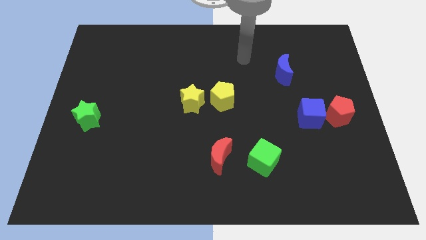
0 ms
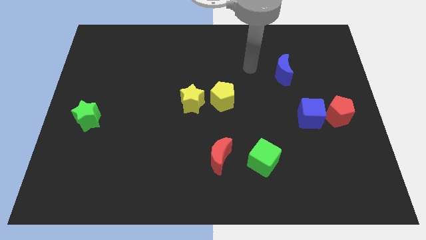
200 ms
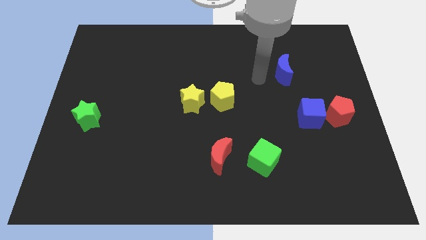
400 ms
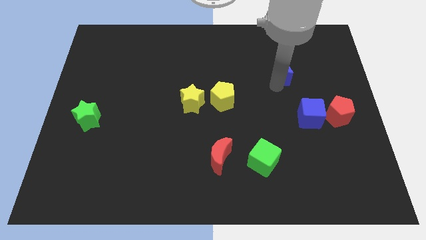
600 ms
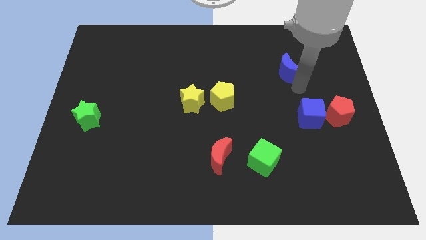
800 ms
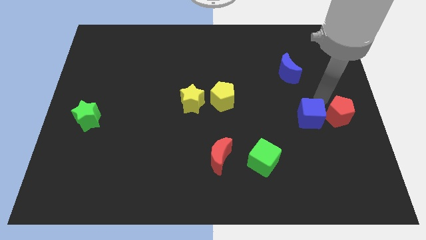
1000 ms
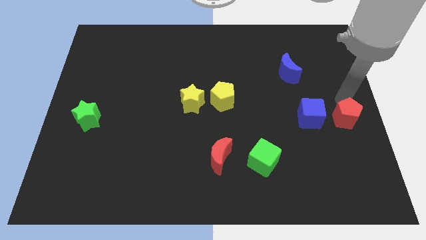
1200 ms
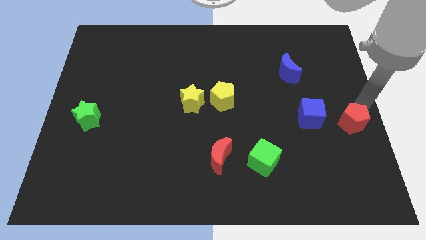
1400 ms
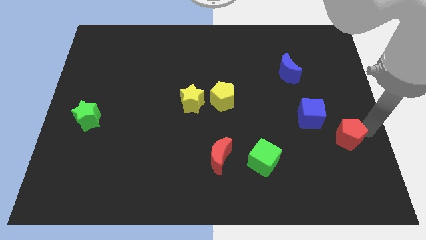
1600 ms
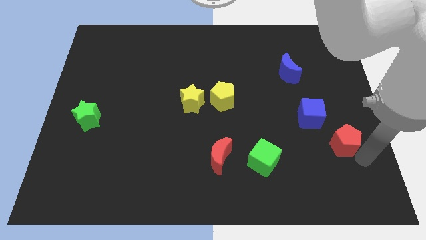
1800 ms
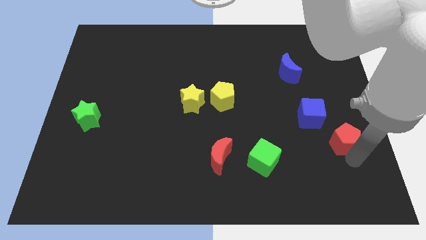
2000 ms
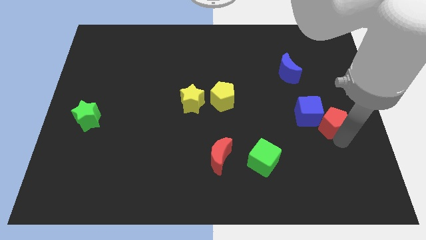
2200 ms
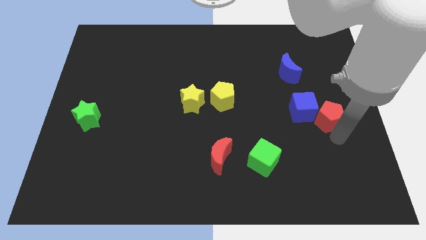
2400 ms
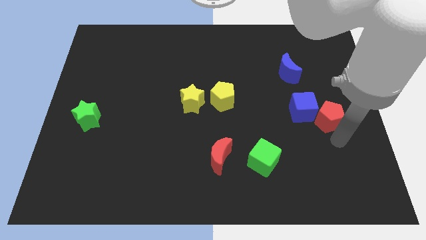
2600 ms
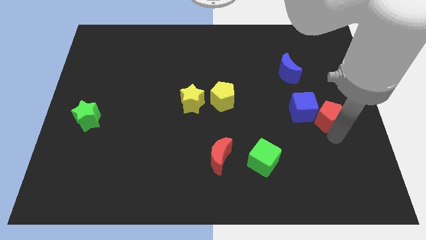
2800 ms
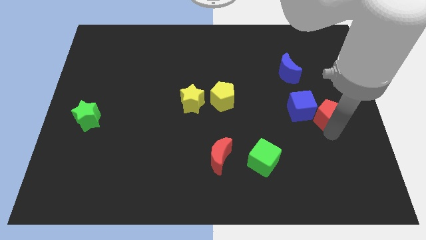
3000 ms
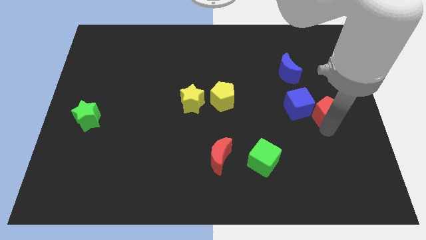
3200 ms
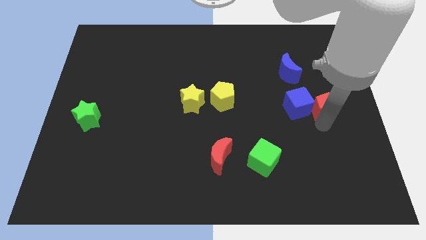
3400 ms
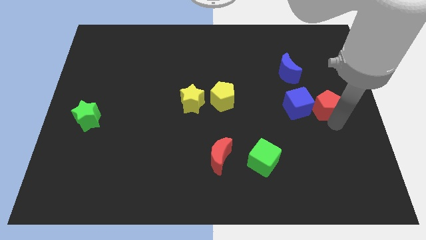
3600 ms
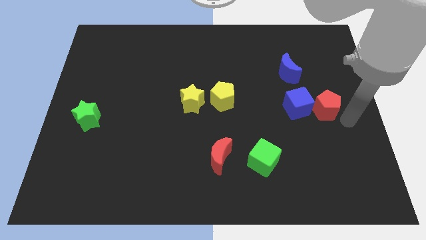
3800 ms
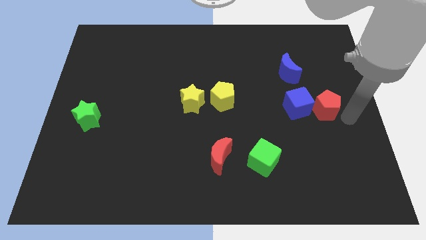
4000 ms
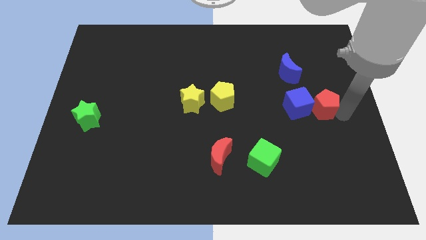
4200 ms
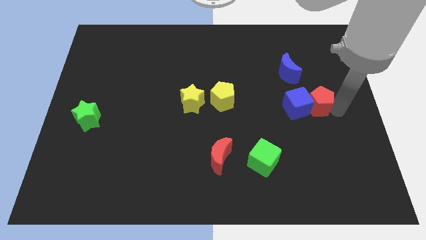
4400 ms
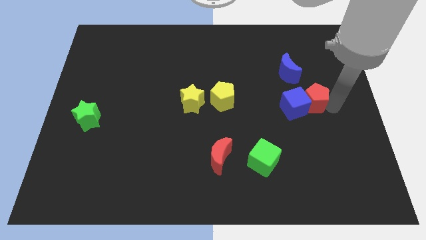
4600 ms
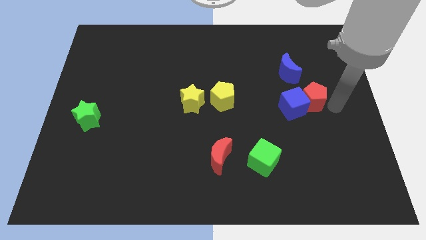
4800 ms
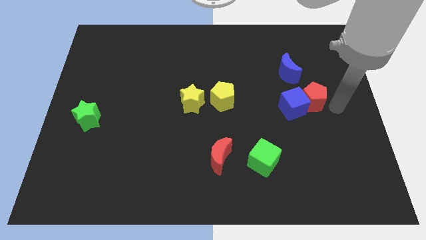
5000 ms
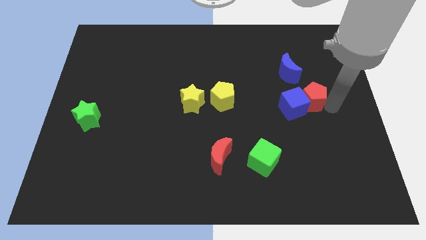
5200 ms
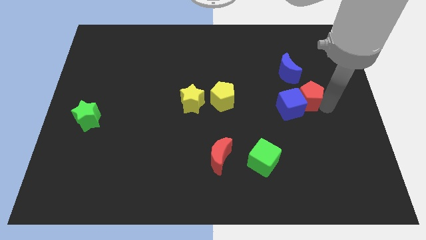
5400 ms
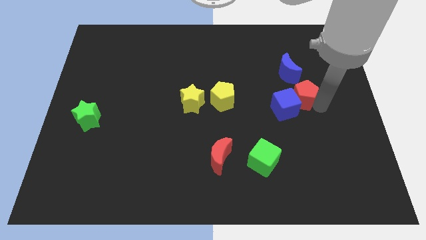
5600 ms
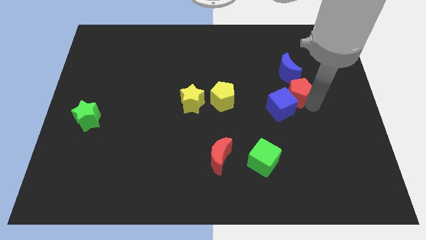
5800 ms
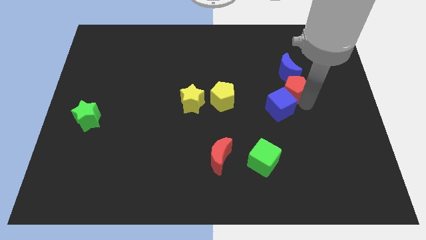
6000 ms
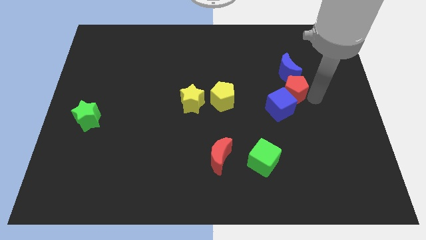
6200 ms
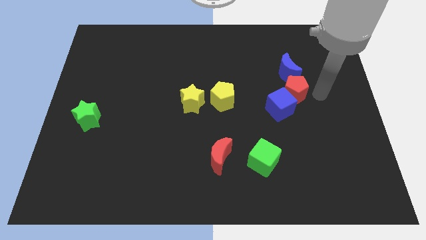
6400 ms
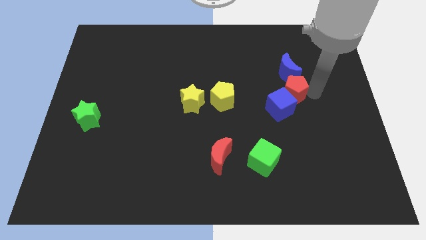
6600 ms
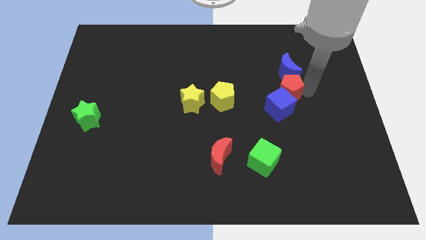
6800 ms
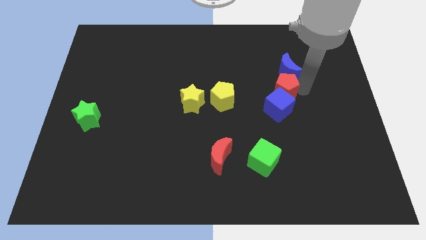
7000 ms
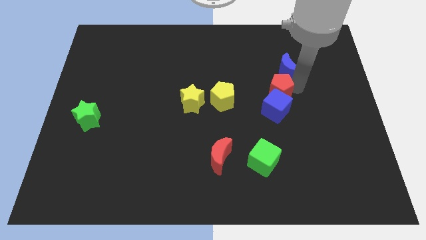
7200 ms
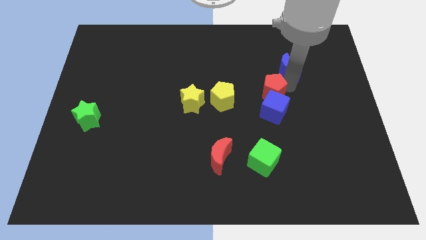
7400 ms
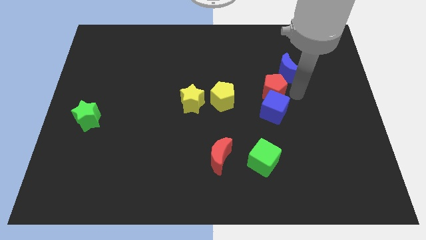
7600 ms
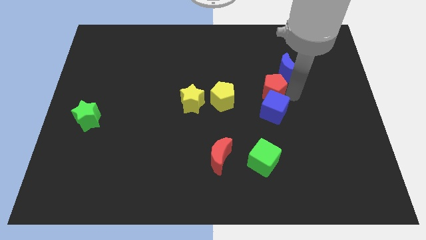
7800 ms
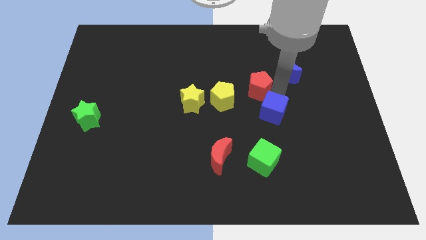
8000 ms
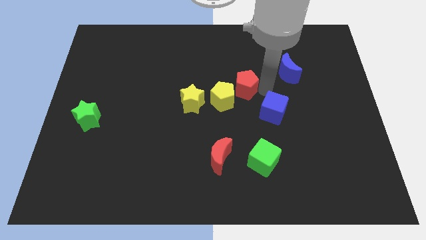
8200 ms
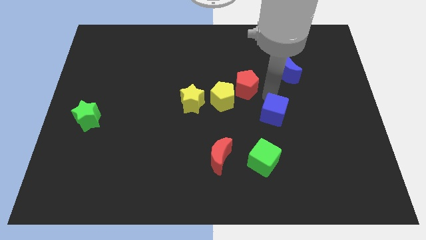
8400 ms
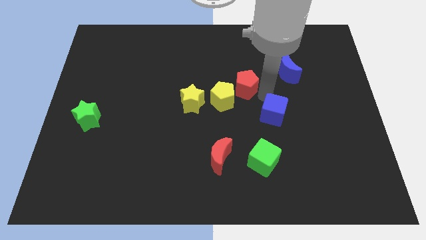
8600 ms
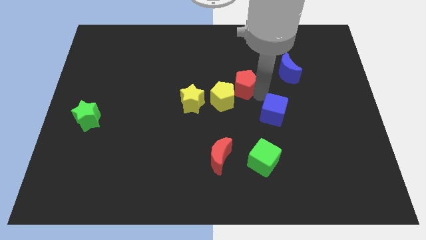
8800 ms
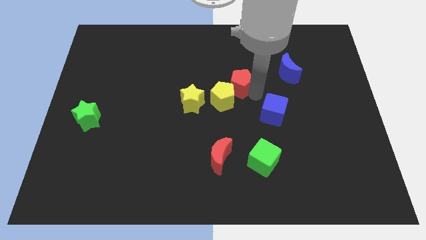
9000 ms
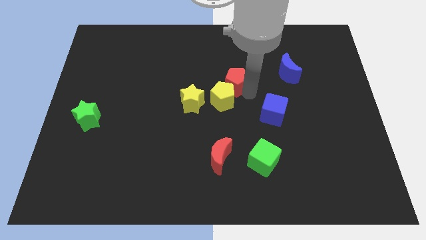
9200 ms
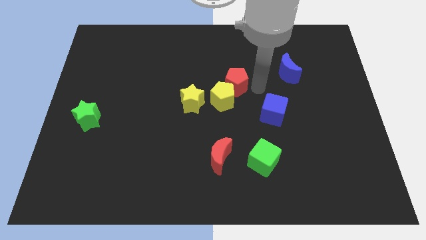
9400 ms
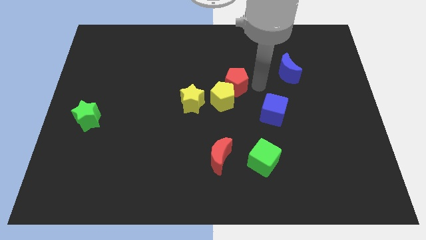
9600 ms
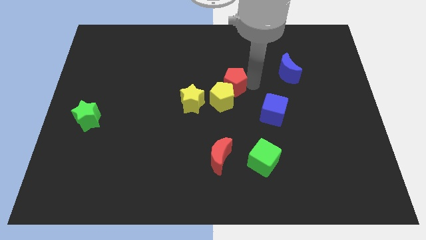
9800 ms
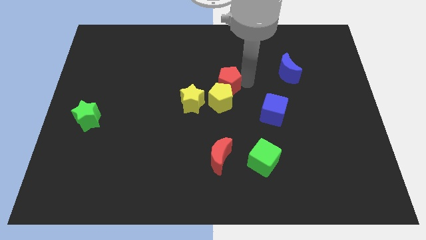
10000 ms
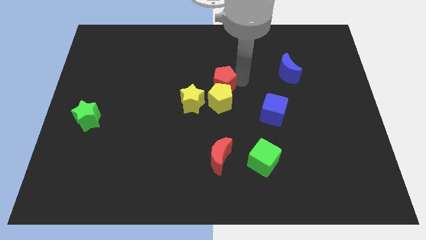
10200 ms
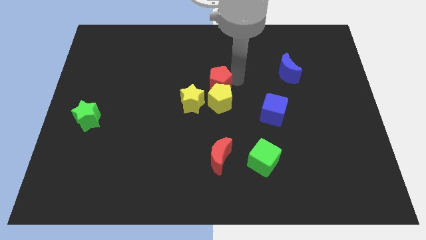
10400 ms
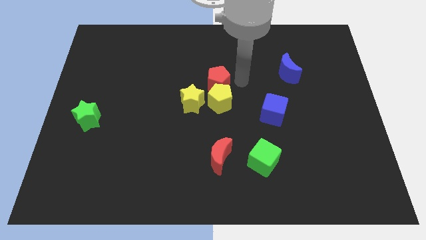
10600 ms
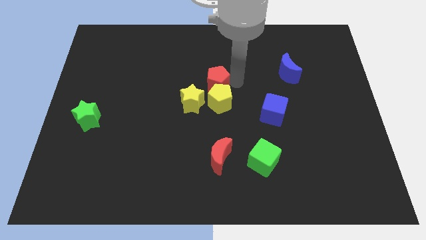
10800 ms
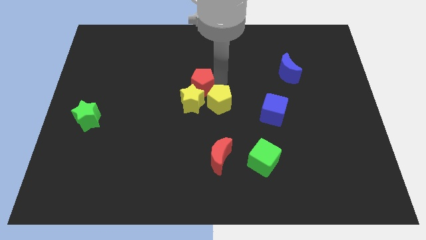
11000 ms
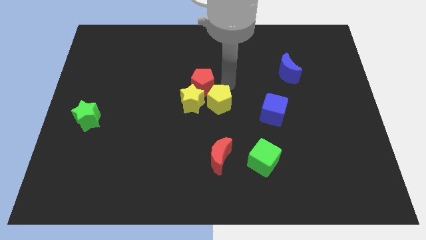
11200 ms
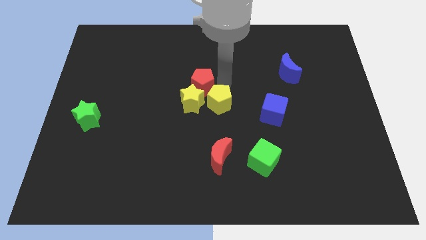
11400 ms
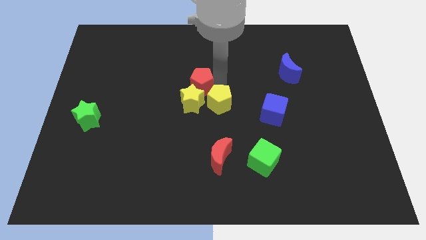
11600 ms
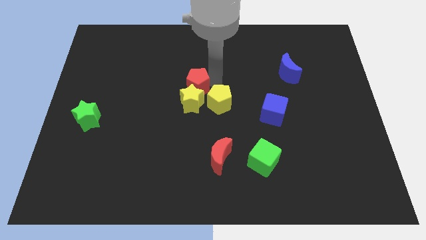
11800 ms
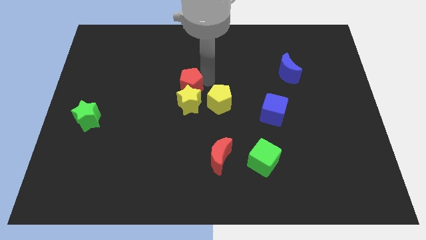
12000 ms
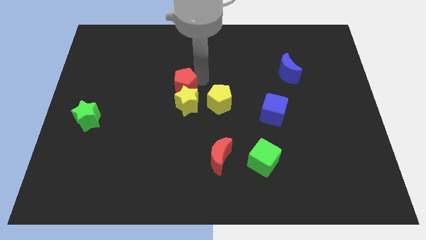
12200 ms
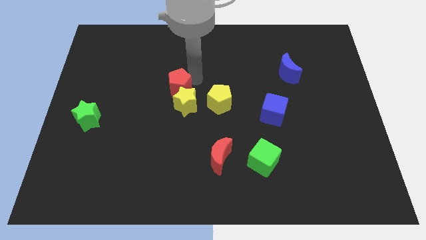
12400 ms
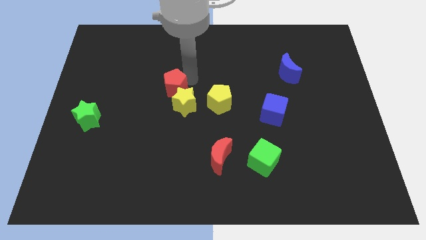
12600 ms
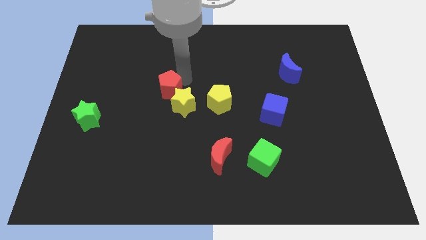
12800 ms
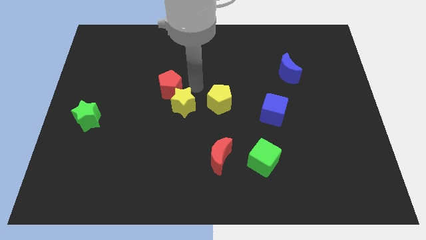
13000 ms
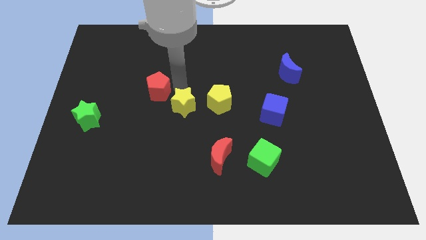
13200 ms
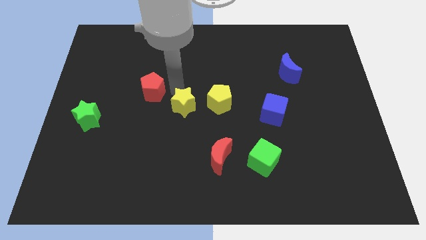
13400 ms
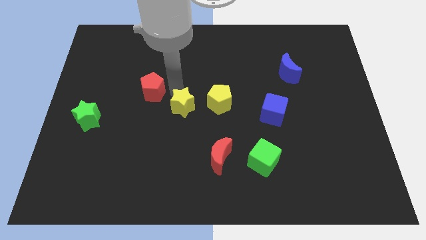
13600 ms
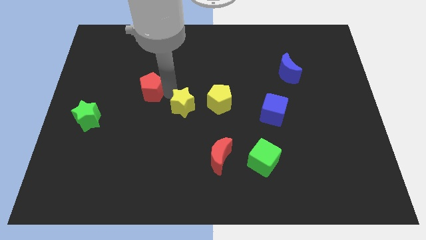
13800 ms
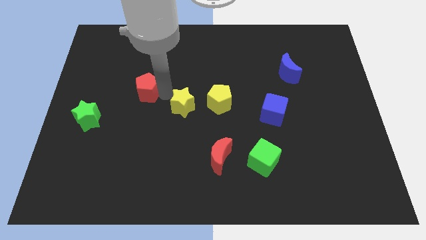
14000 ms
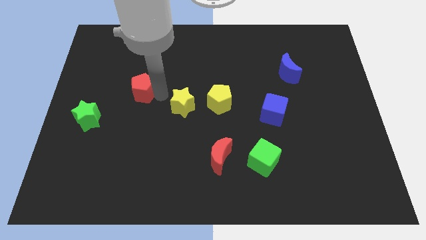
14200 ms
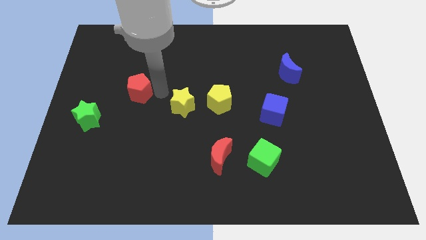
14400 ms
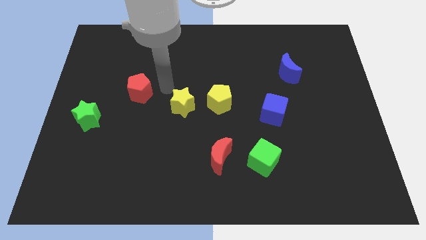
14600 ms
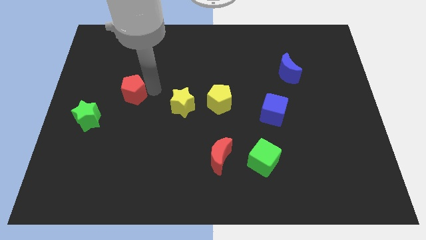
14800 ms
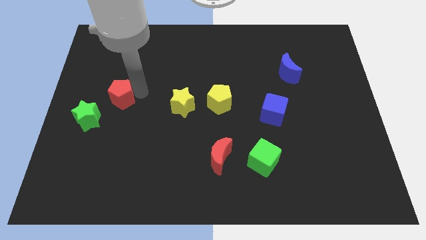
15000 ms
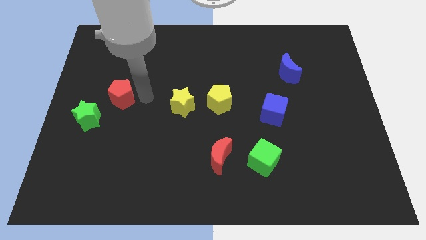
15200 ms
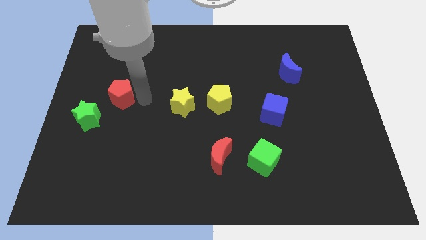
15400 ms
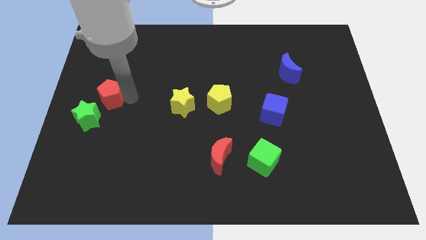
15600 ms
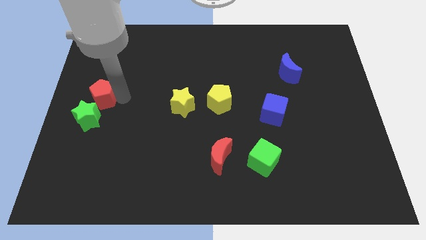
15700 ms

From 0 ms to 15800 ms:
slide the red pentagon to the center left
